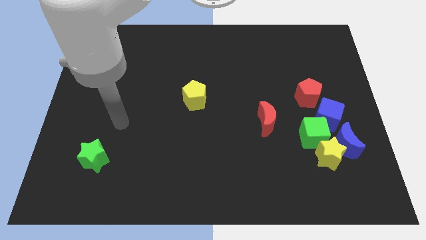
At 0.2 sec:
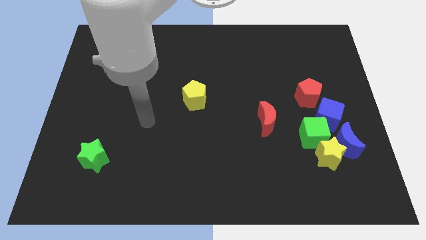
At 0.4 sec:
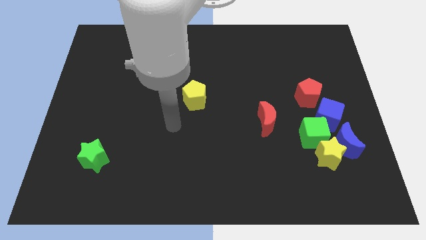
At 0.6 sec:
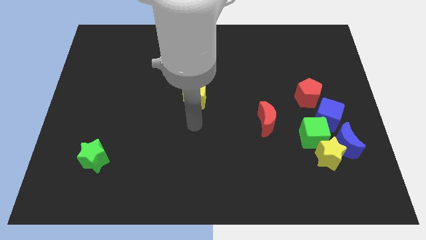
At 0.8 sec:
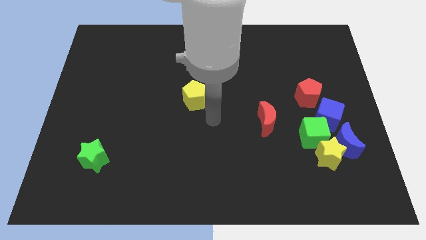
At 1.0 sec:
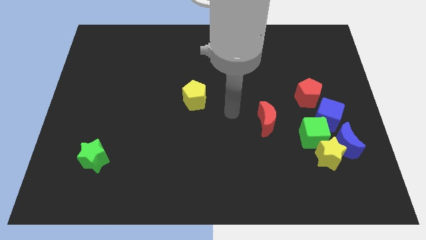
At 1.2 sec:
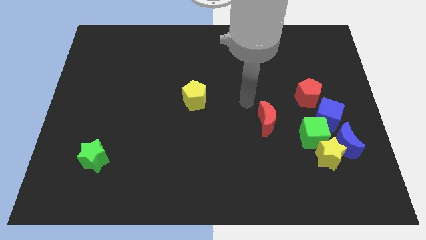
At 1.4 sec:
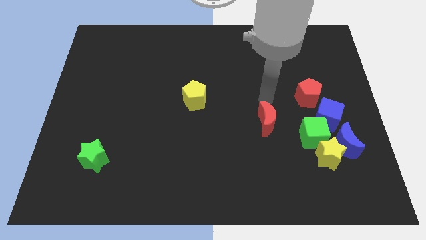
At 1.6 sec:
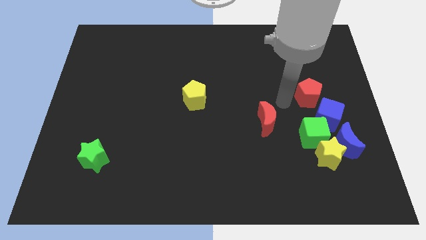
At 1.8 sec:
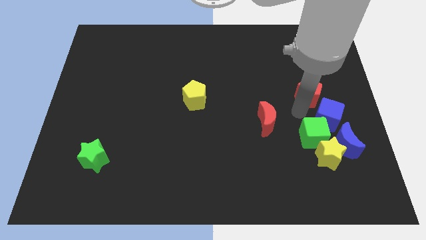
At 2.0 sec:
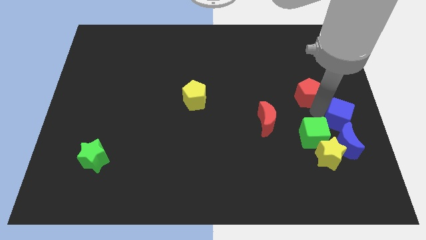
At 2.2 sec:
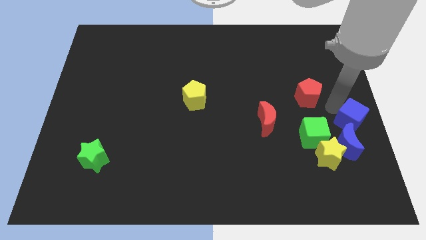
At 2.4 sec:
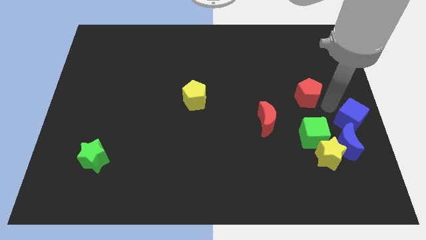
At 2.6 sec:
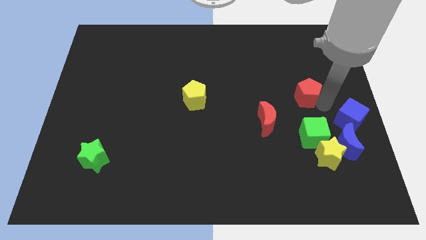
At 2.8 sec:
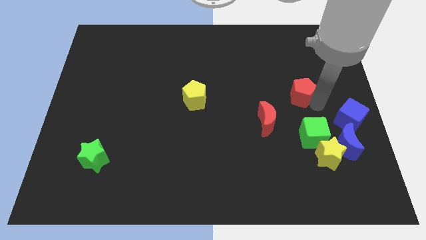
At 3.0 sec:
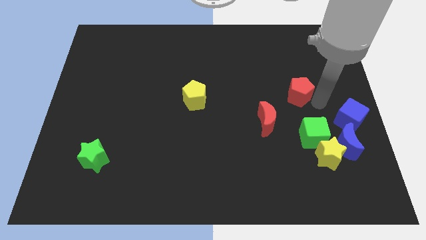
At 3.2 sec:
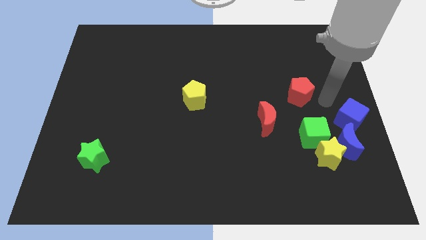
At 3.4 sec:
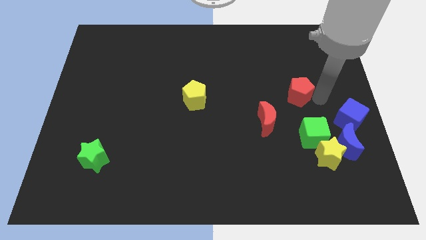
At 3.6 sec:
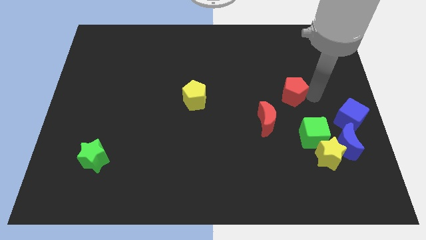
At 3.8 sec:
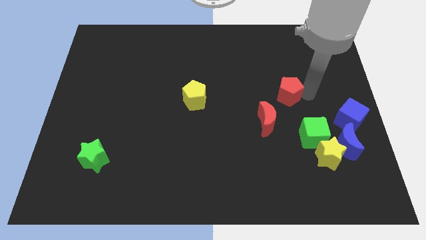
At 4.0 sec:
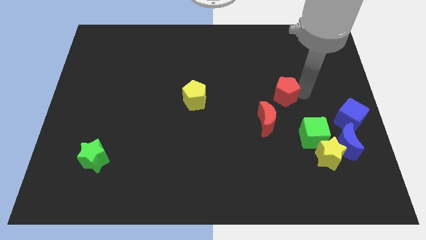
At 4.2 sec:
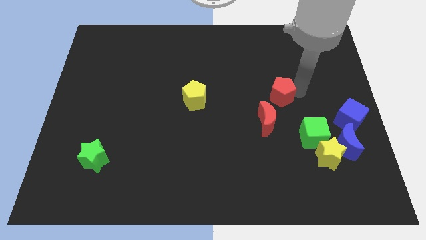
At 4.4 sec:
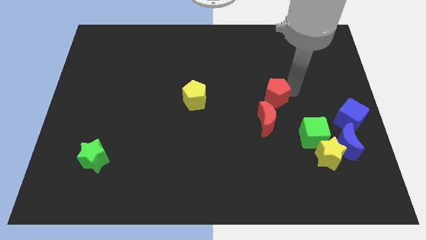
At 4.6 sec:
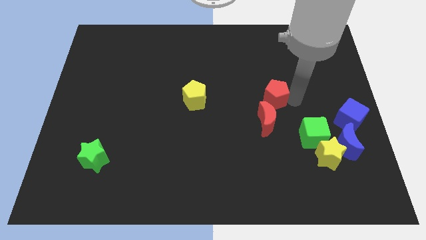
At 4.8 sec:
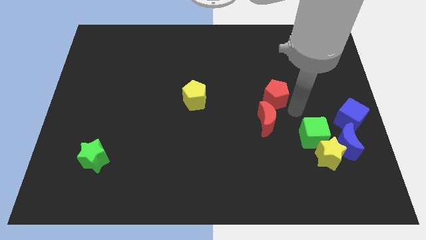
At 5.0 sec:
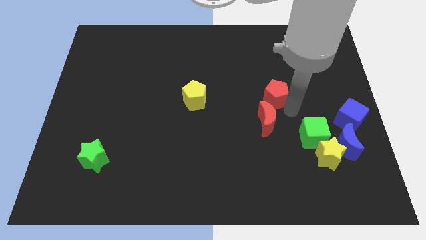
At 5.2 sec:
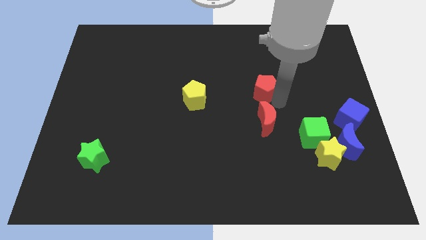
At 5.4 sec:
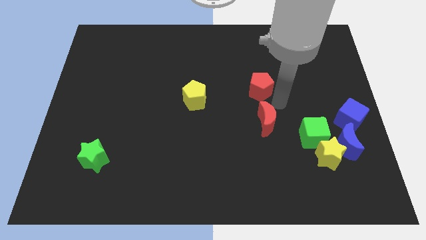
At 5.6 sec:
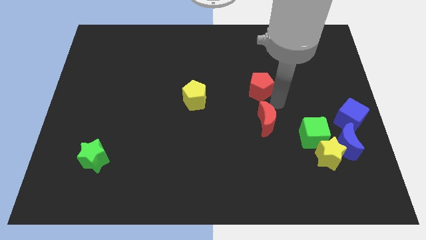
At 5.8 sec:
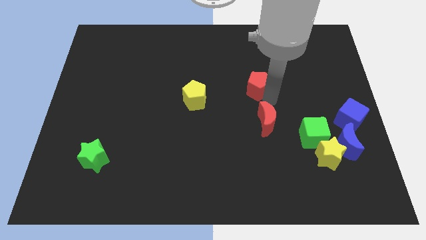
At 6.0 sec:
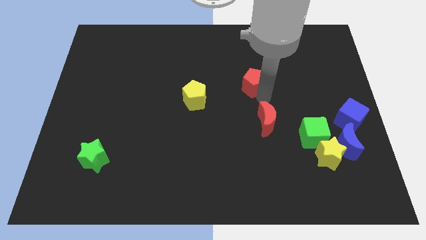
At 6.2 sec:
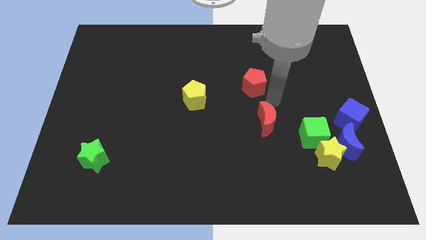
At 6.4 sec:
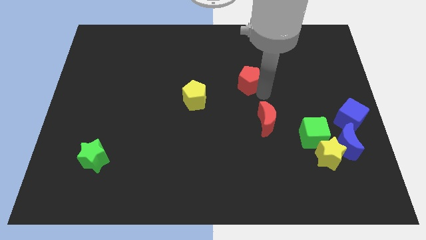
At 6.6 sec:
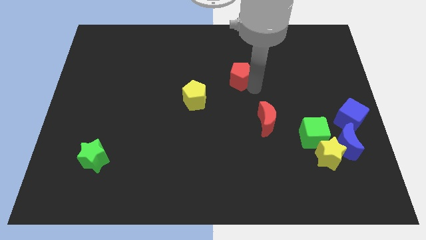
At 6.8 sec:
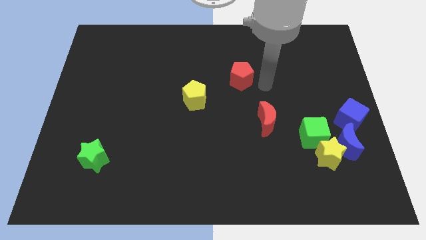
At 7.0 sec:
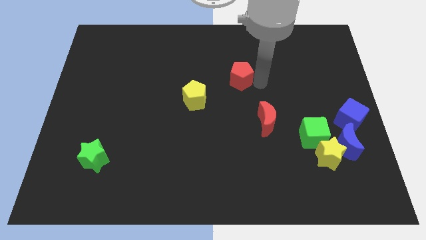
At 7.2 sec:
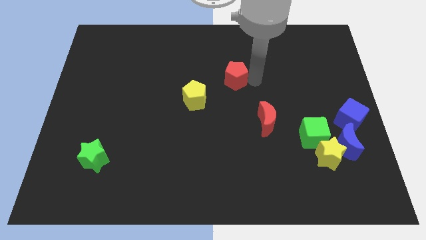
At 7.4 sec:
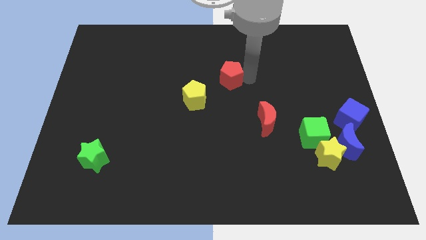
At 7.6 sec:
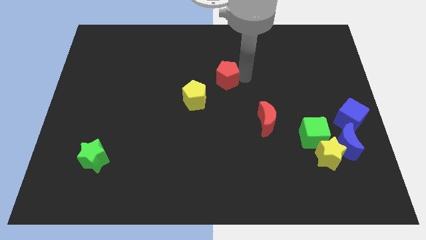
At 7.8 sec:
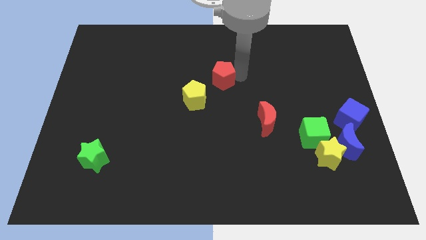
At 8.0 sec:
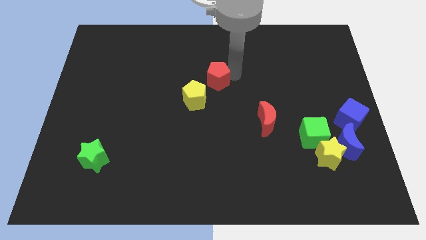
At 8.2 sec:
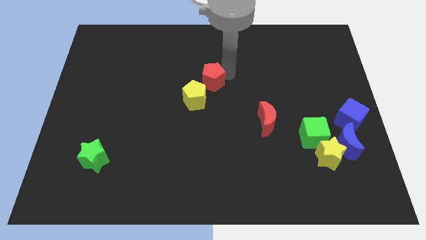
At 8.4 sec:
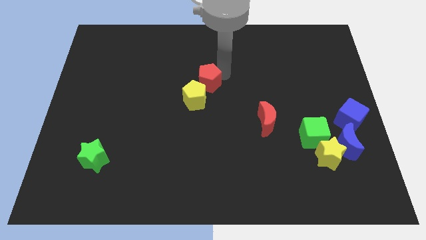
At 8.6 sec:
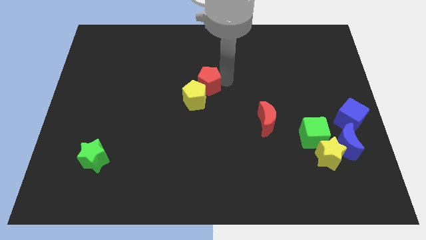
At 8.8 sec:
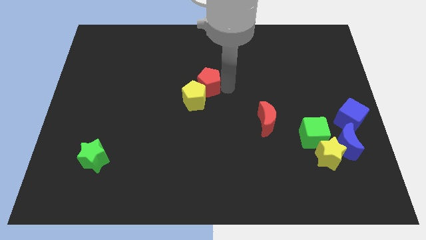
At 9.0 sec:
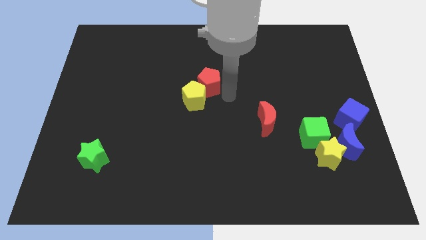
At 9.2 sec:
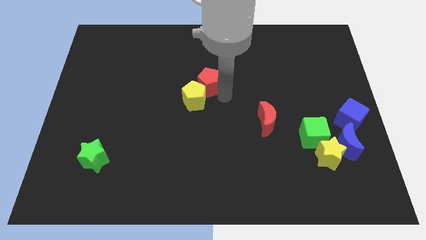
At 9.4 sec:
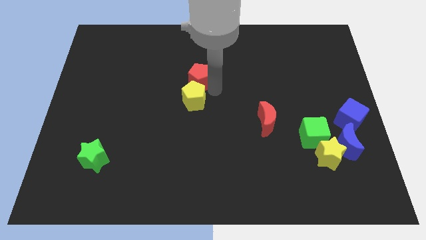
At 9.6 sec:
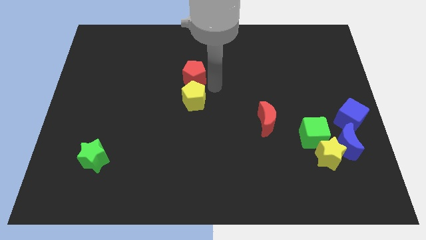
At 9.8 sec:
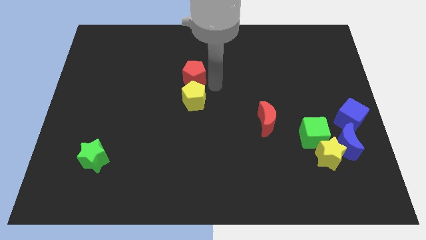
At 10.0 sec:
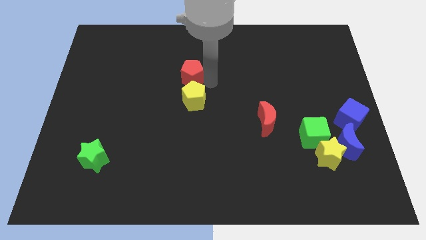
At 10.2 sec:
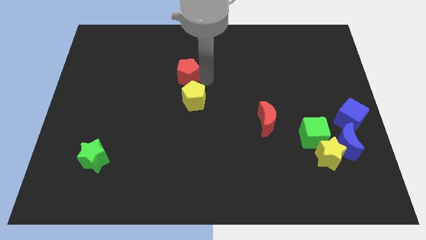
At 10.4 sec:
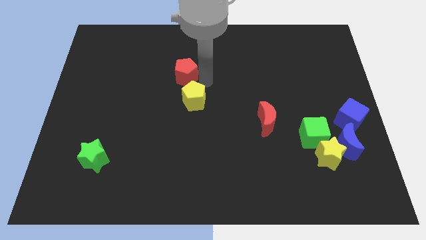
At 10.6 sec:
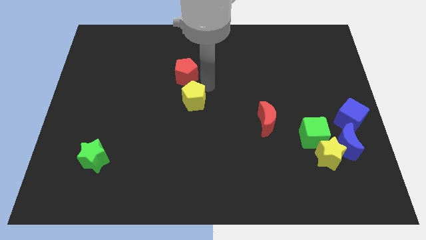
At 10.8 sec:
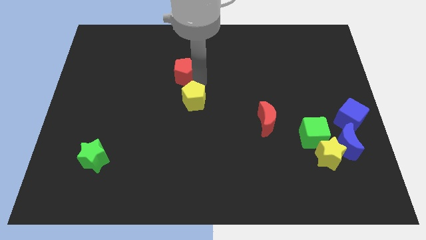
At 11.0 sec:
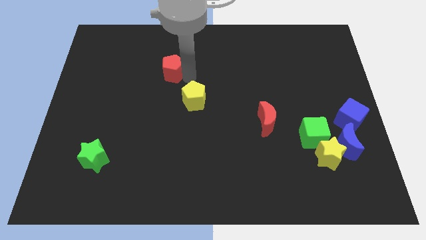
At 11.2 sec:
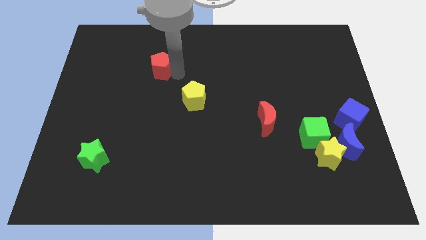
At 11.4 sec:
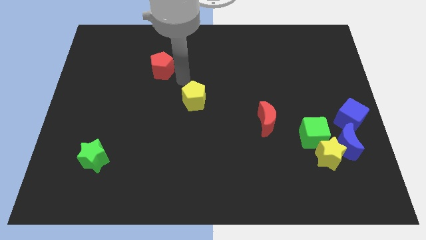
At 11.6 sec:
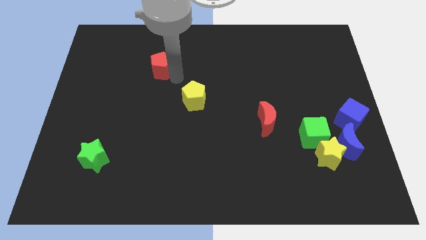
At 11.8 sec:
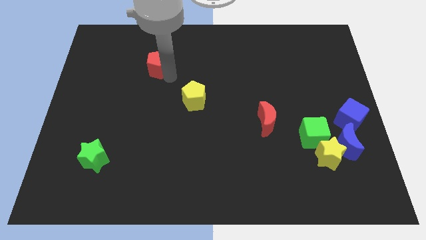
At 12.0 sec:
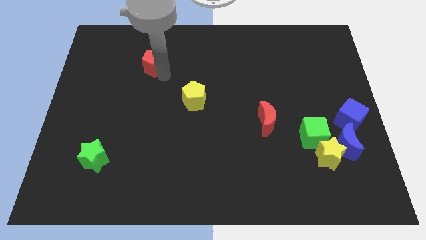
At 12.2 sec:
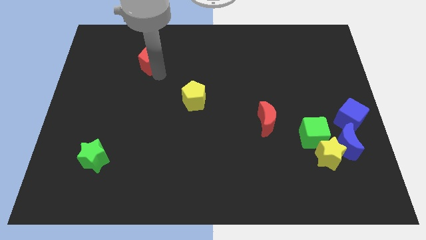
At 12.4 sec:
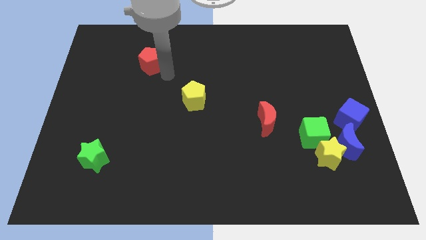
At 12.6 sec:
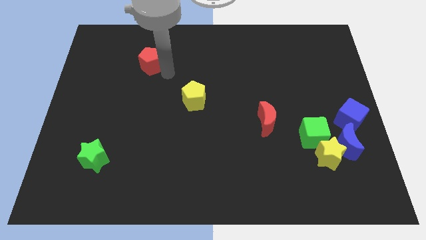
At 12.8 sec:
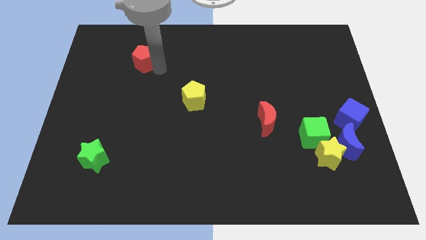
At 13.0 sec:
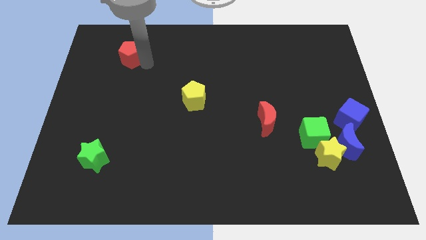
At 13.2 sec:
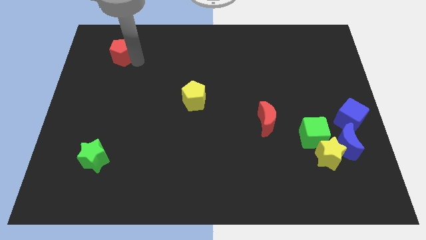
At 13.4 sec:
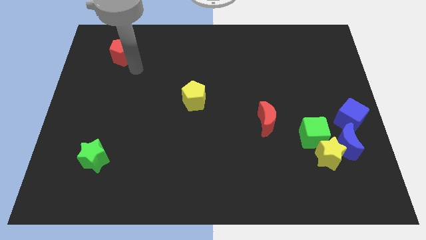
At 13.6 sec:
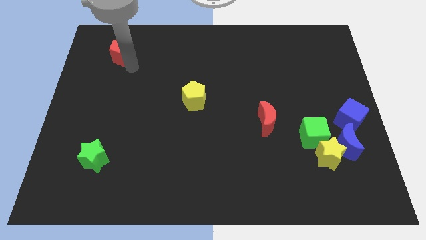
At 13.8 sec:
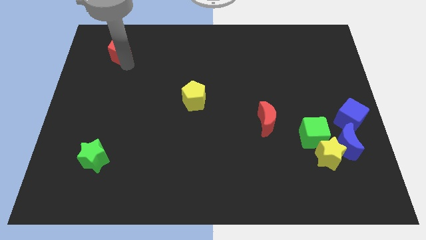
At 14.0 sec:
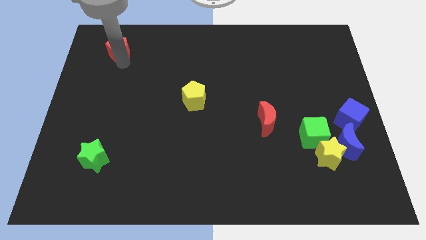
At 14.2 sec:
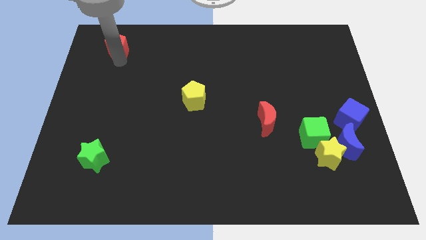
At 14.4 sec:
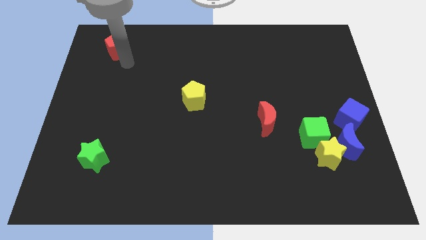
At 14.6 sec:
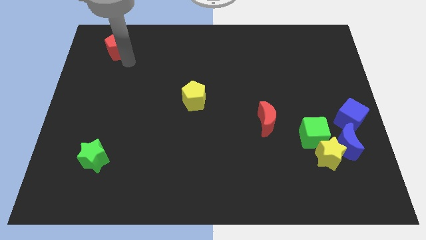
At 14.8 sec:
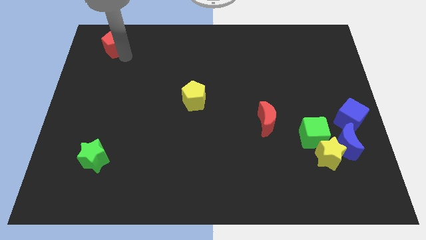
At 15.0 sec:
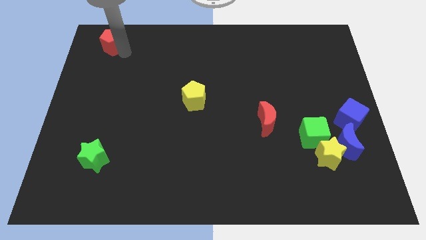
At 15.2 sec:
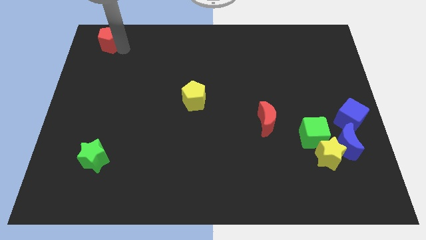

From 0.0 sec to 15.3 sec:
move the red pentagon to the top left corner
